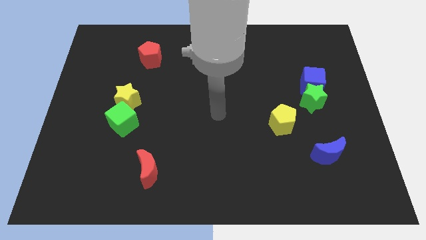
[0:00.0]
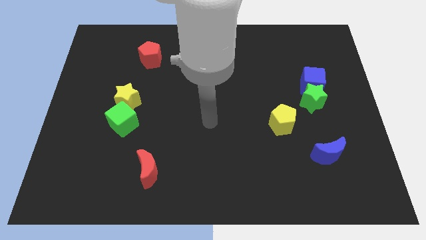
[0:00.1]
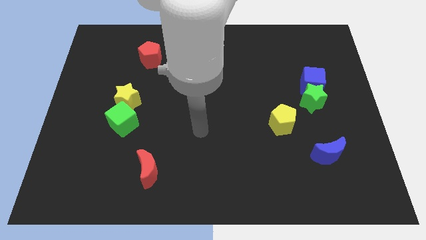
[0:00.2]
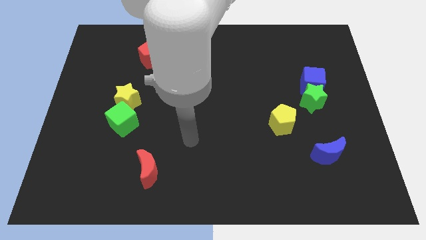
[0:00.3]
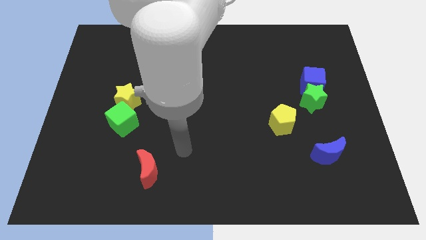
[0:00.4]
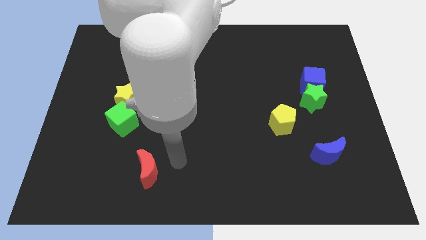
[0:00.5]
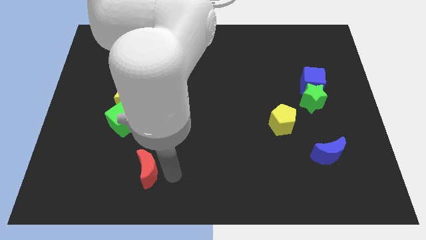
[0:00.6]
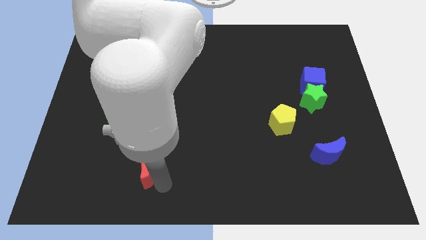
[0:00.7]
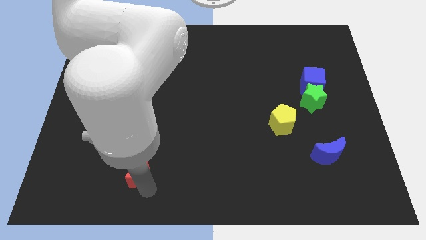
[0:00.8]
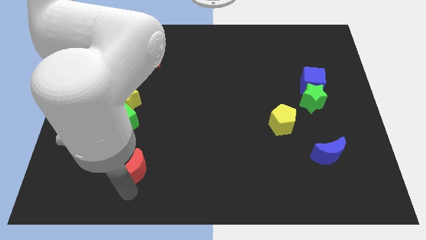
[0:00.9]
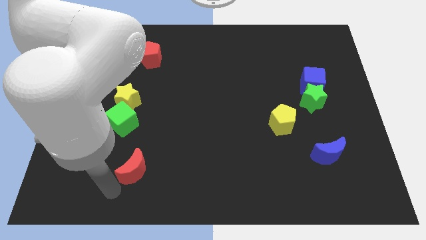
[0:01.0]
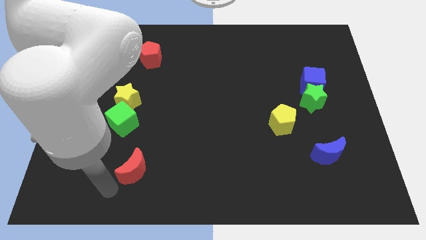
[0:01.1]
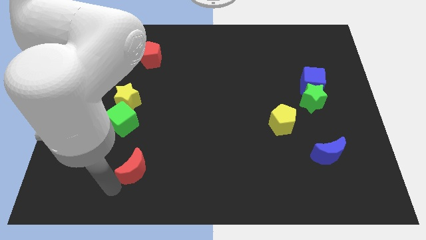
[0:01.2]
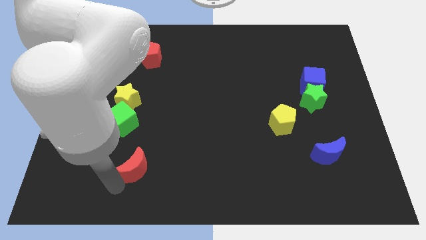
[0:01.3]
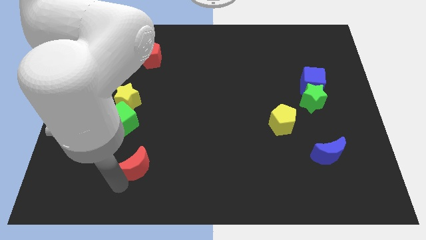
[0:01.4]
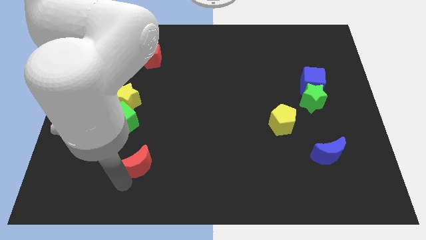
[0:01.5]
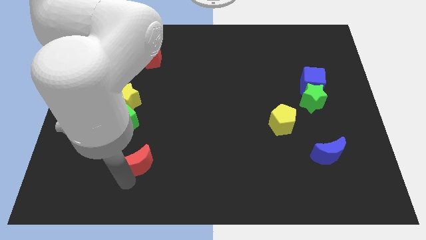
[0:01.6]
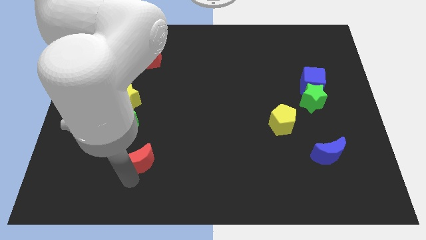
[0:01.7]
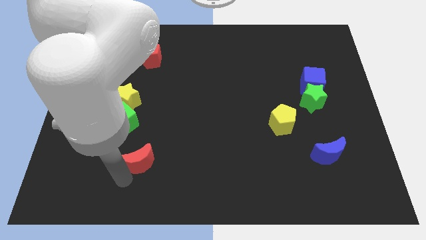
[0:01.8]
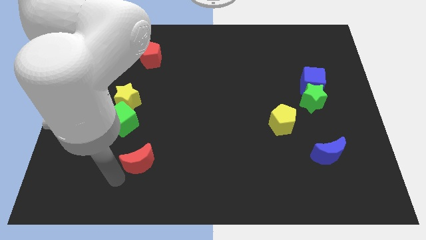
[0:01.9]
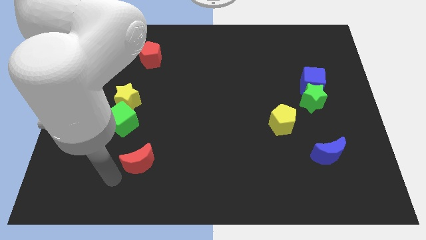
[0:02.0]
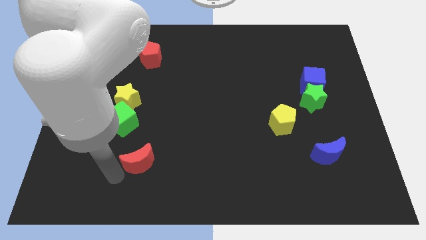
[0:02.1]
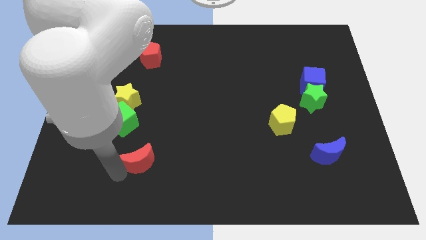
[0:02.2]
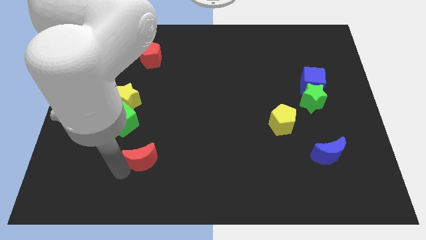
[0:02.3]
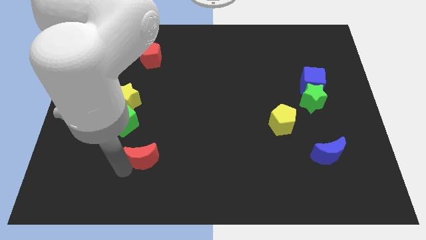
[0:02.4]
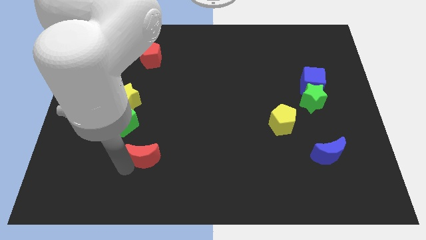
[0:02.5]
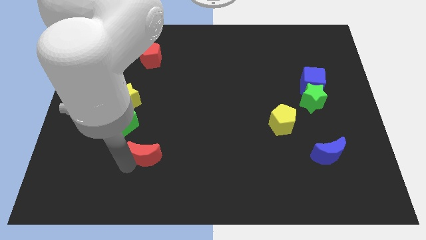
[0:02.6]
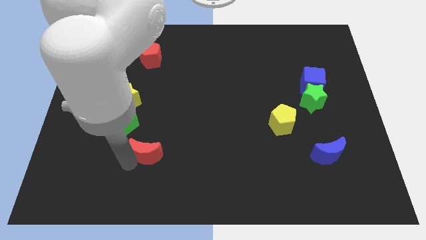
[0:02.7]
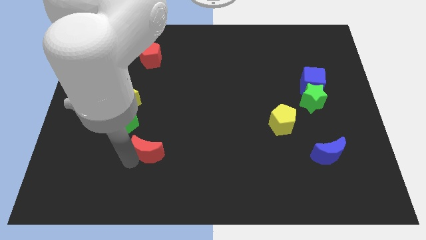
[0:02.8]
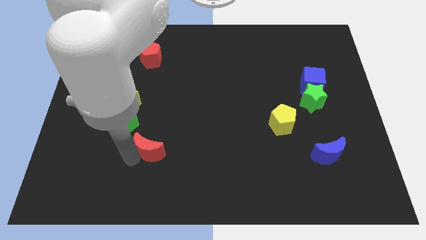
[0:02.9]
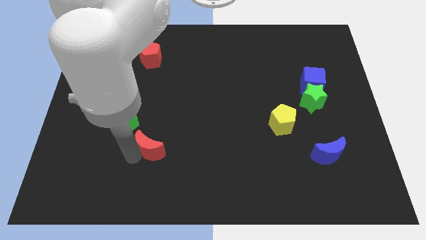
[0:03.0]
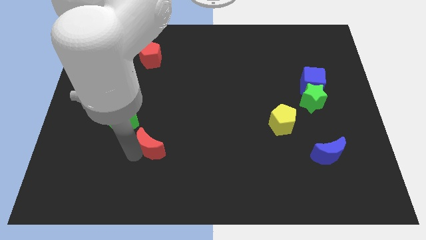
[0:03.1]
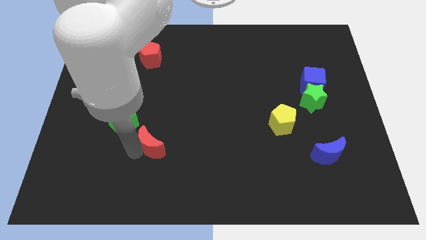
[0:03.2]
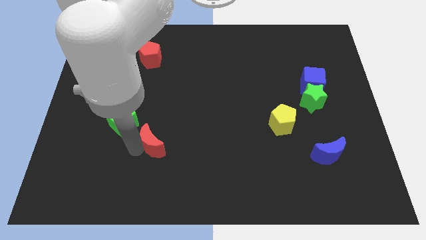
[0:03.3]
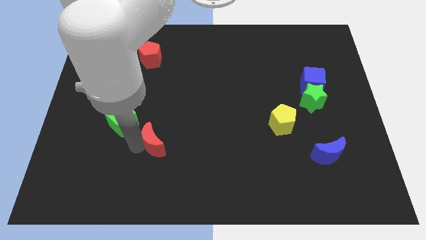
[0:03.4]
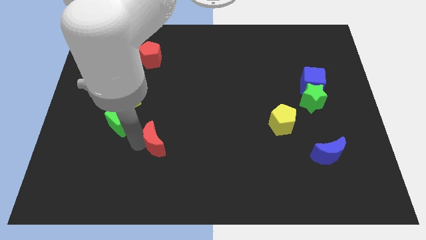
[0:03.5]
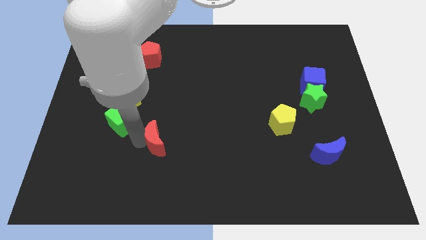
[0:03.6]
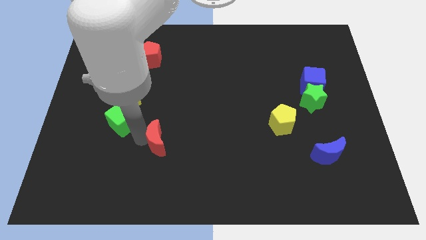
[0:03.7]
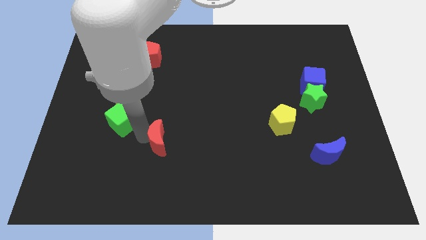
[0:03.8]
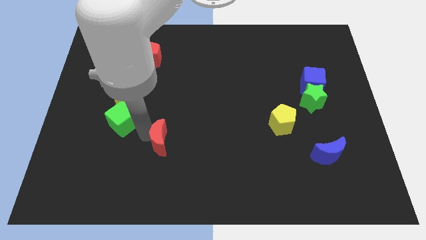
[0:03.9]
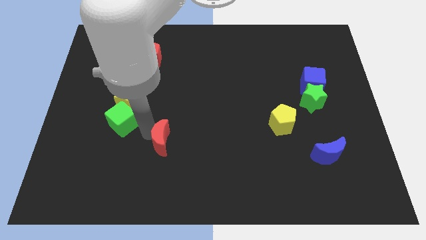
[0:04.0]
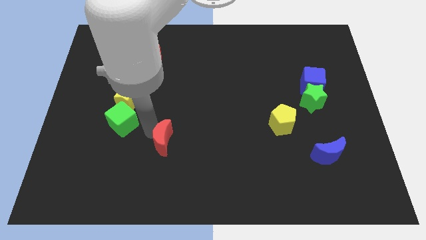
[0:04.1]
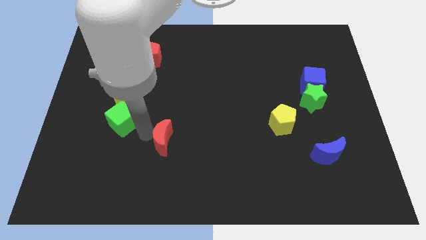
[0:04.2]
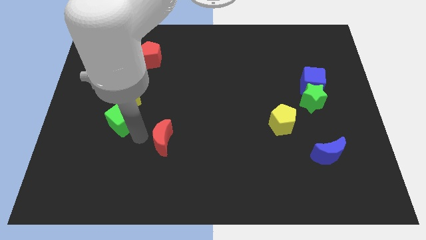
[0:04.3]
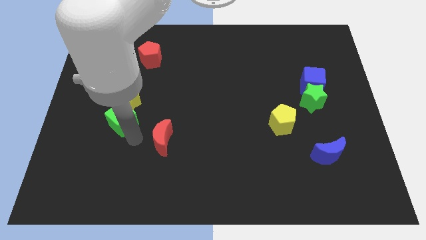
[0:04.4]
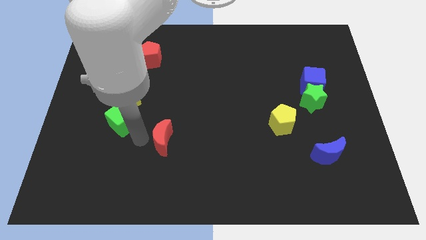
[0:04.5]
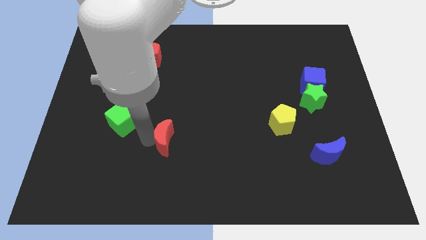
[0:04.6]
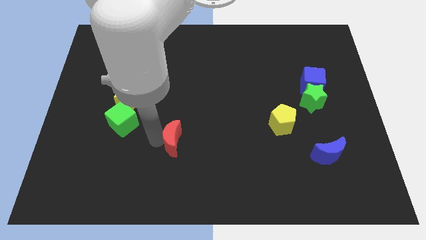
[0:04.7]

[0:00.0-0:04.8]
move the red moon slightly up and right diagonally

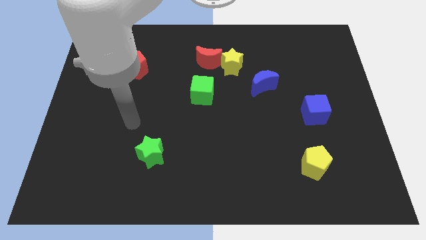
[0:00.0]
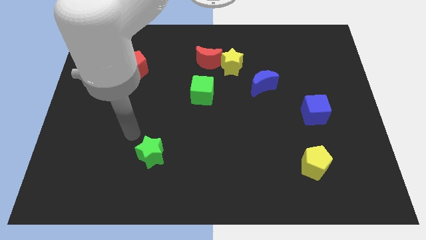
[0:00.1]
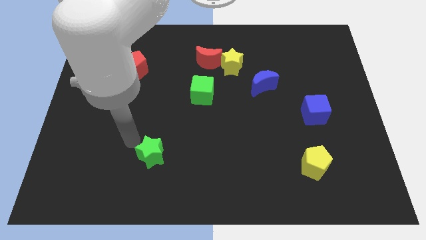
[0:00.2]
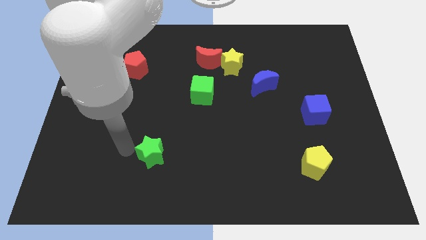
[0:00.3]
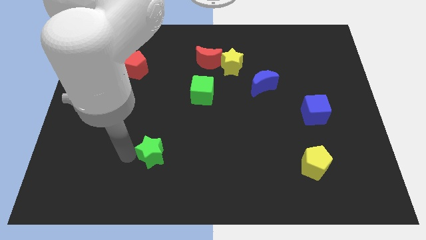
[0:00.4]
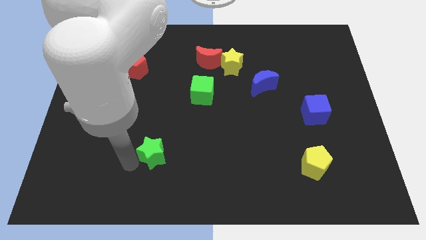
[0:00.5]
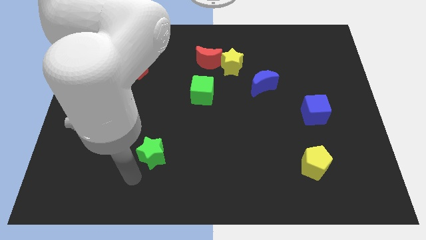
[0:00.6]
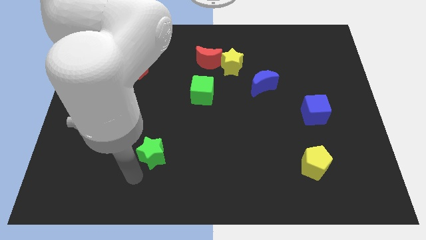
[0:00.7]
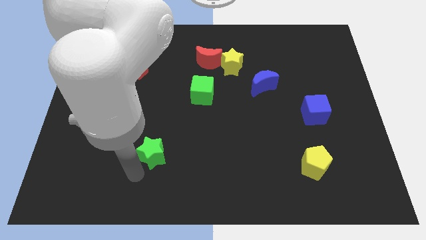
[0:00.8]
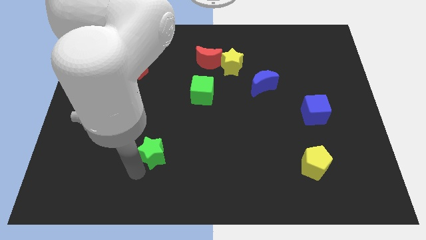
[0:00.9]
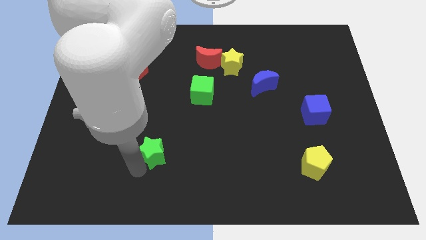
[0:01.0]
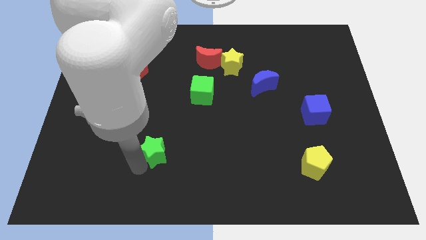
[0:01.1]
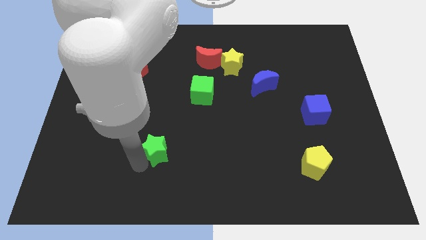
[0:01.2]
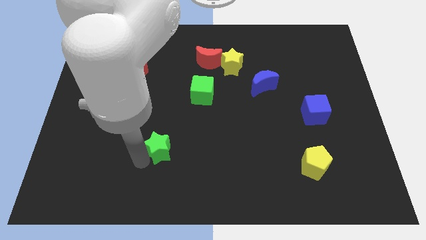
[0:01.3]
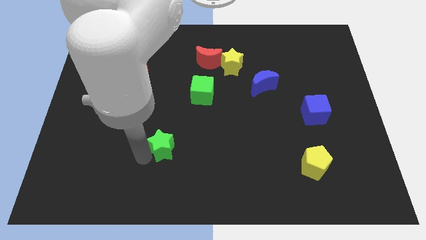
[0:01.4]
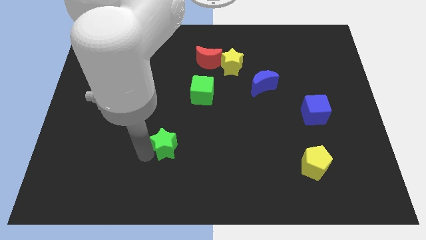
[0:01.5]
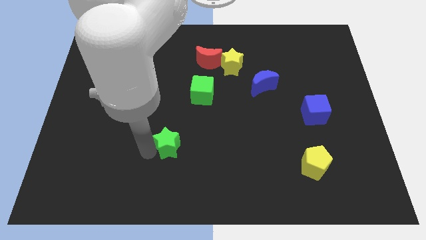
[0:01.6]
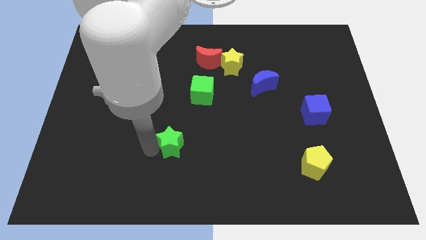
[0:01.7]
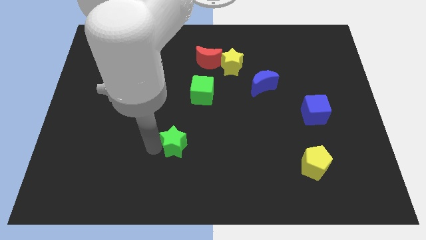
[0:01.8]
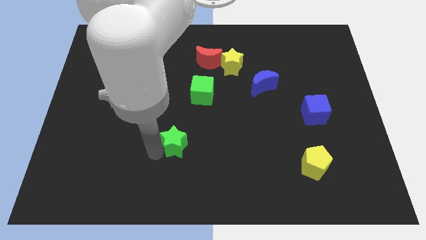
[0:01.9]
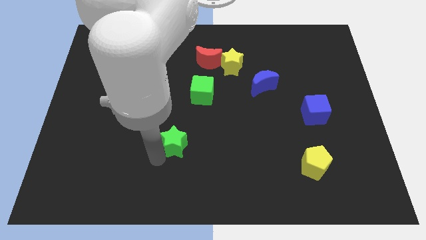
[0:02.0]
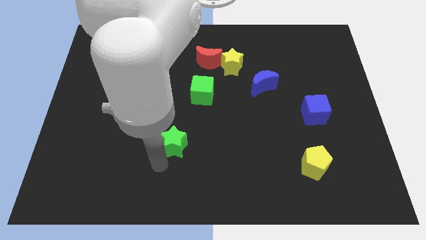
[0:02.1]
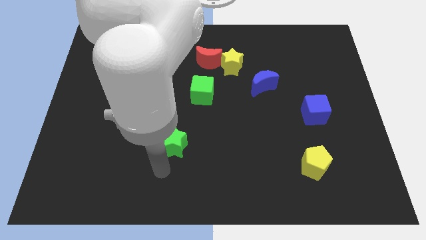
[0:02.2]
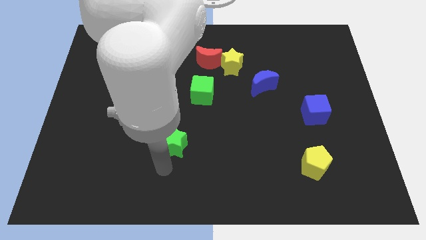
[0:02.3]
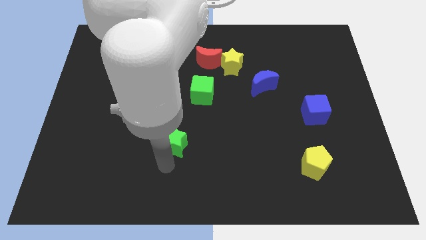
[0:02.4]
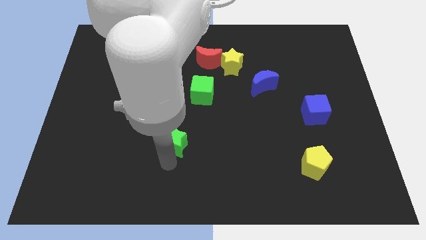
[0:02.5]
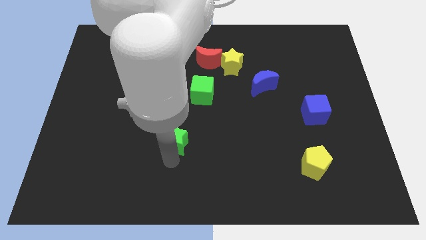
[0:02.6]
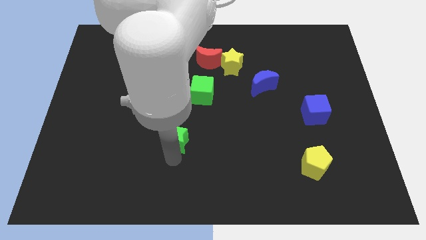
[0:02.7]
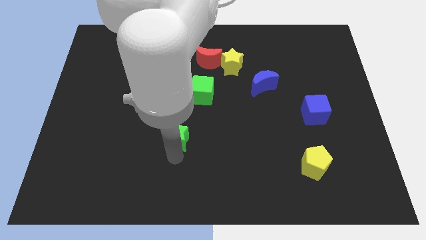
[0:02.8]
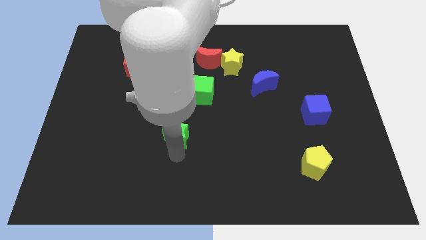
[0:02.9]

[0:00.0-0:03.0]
slide the green star slightly up and then right
